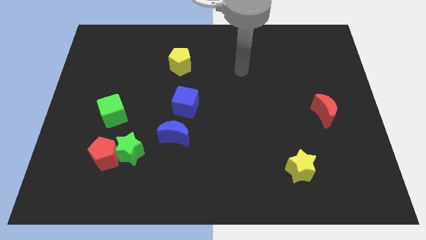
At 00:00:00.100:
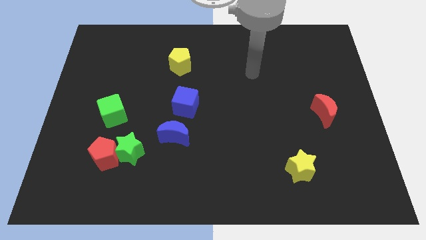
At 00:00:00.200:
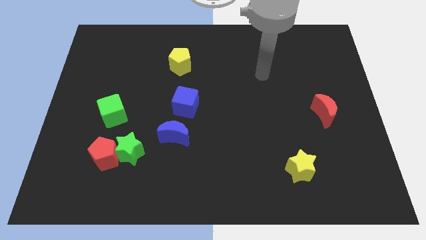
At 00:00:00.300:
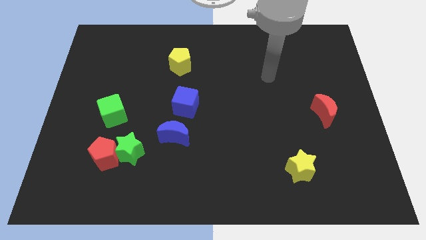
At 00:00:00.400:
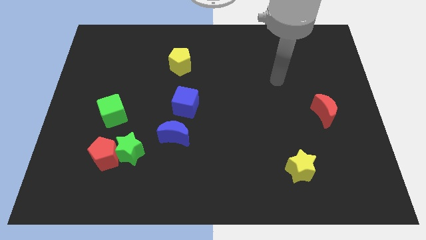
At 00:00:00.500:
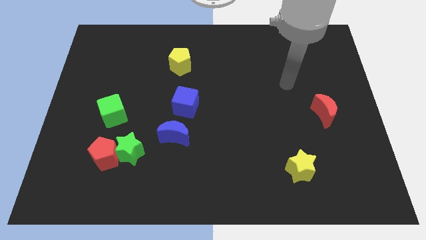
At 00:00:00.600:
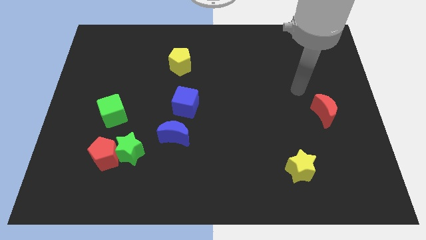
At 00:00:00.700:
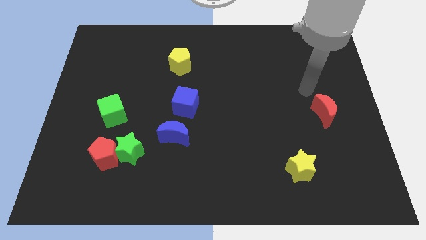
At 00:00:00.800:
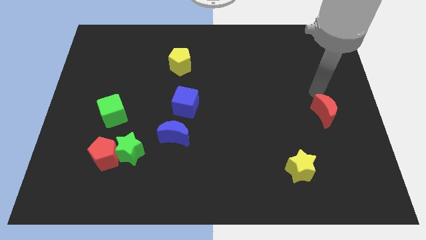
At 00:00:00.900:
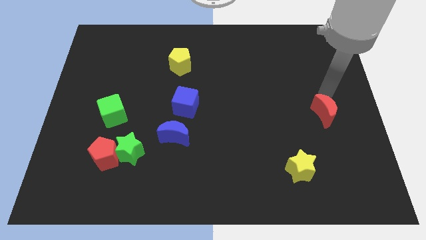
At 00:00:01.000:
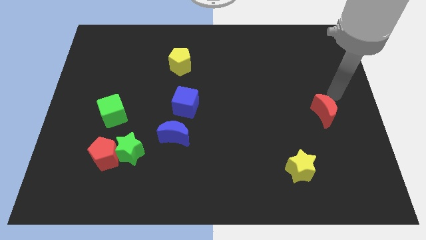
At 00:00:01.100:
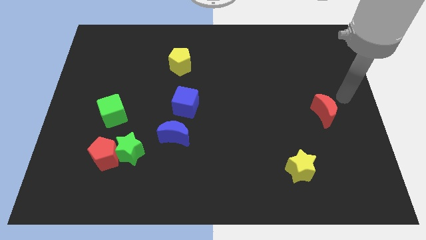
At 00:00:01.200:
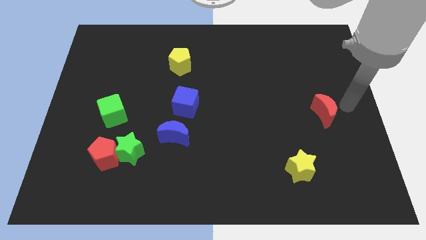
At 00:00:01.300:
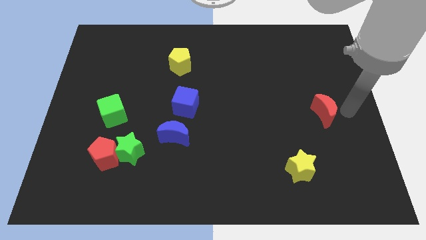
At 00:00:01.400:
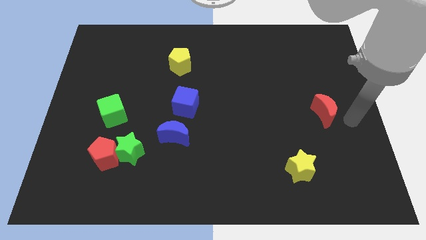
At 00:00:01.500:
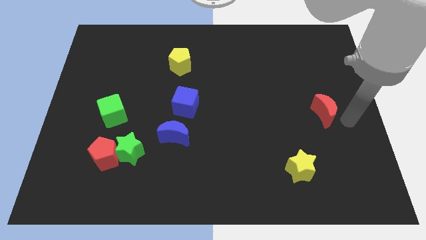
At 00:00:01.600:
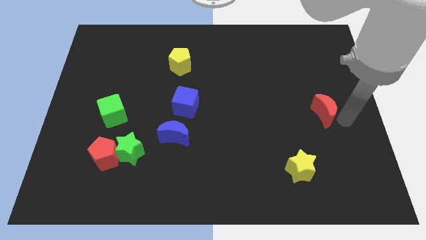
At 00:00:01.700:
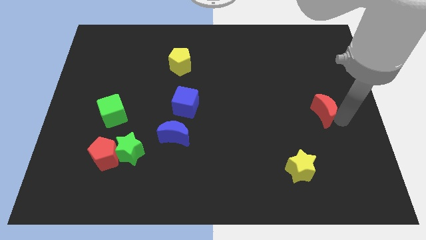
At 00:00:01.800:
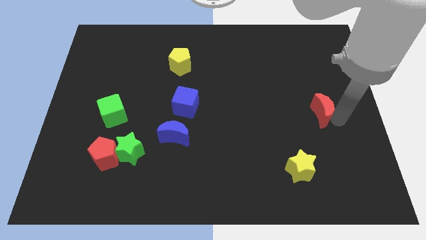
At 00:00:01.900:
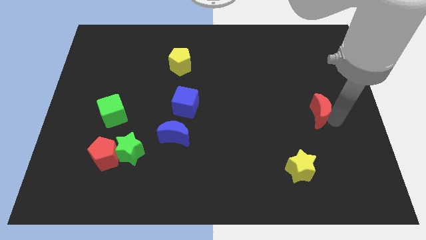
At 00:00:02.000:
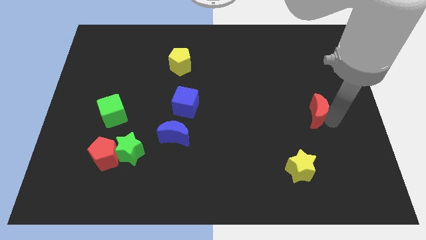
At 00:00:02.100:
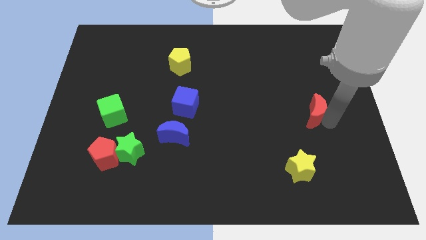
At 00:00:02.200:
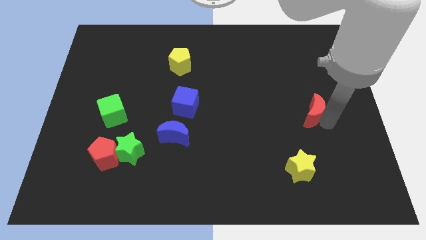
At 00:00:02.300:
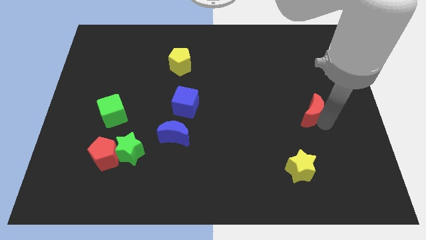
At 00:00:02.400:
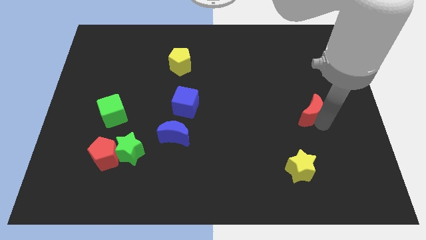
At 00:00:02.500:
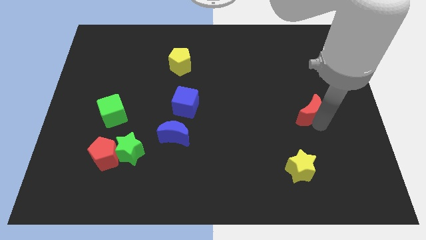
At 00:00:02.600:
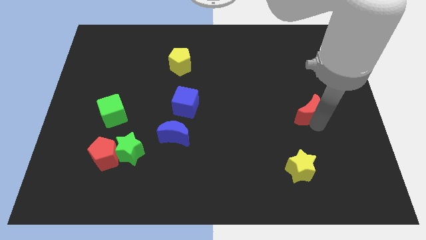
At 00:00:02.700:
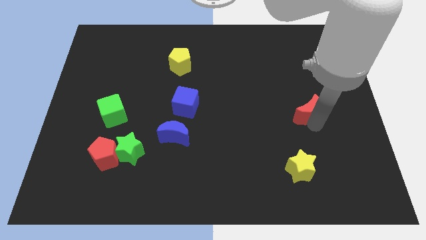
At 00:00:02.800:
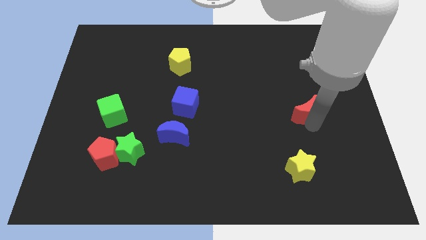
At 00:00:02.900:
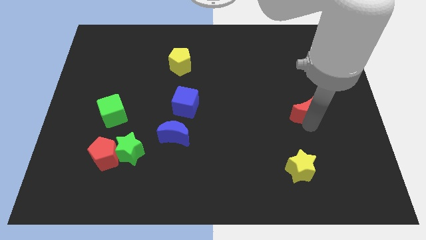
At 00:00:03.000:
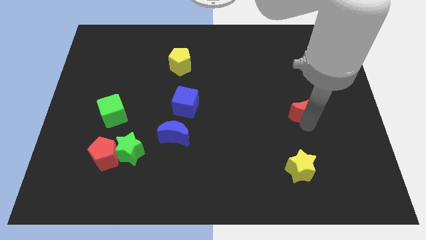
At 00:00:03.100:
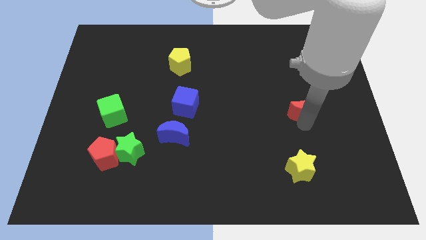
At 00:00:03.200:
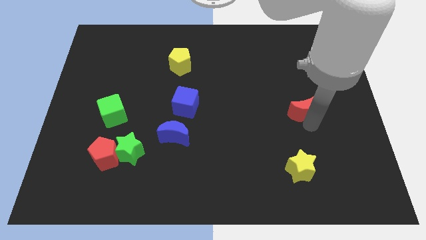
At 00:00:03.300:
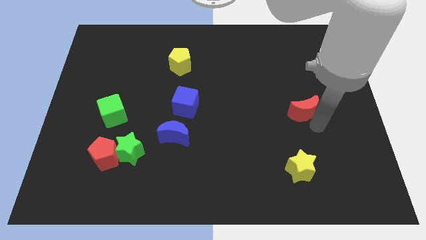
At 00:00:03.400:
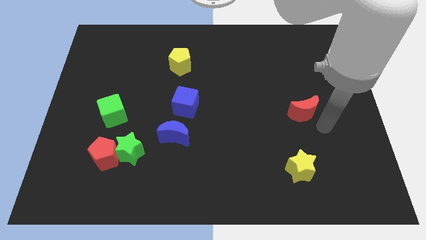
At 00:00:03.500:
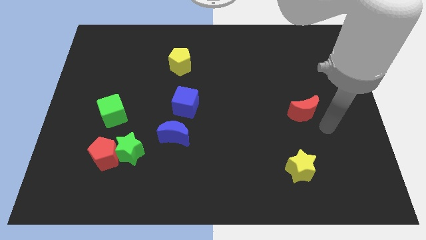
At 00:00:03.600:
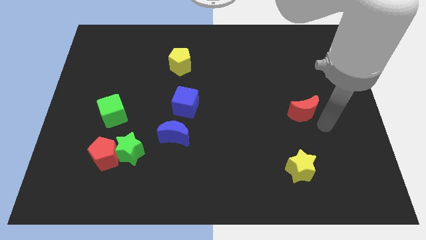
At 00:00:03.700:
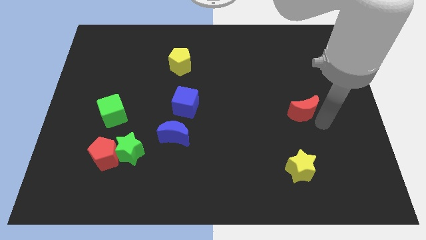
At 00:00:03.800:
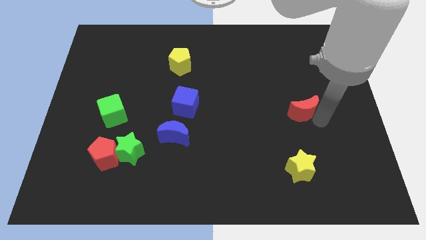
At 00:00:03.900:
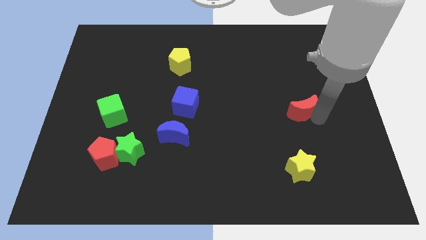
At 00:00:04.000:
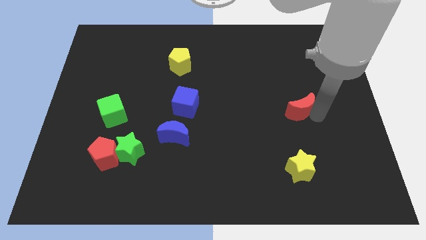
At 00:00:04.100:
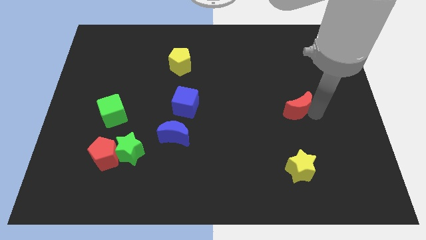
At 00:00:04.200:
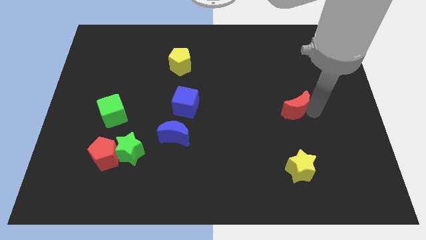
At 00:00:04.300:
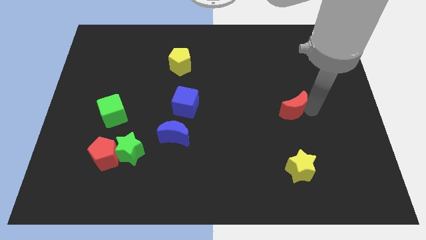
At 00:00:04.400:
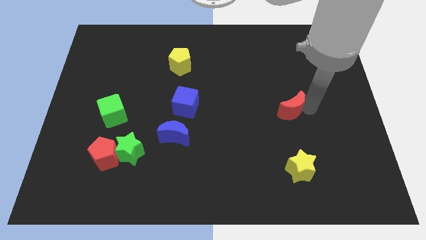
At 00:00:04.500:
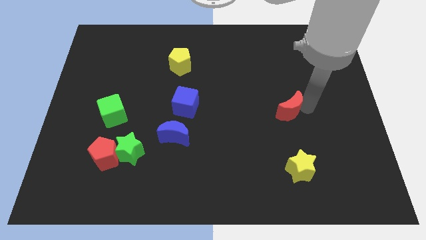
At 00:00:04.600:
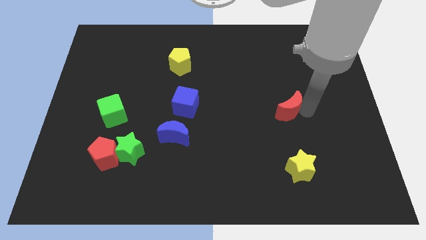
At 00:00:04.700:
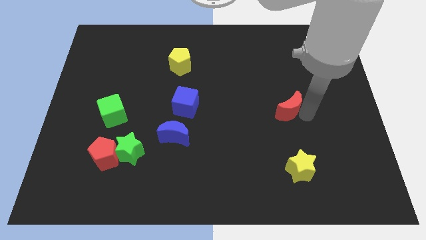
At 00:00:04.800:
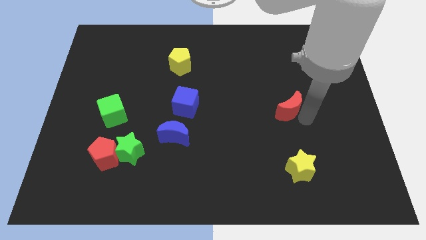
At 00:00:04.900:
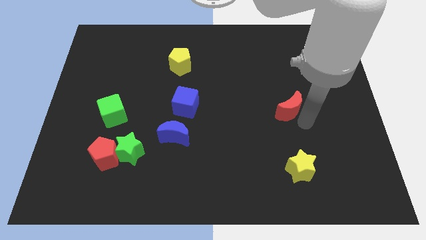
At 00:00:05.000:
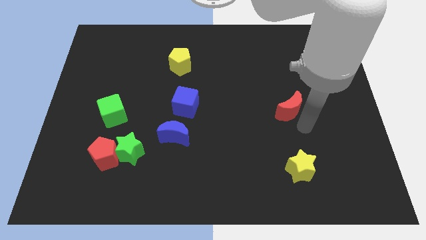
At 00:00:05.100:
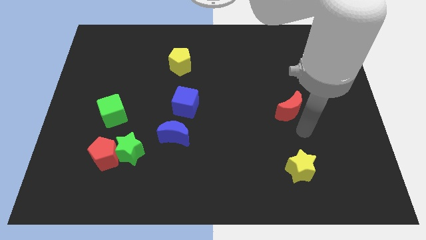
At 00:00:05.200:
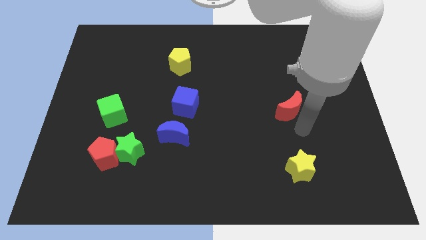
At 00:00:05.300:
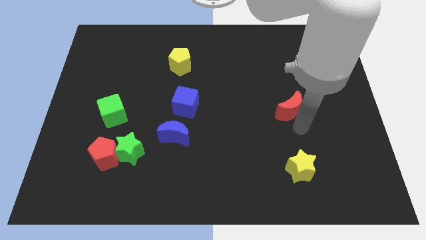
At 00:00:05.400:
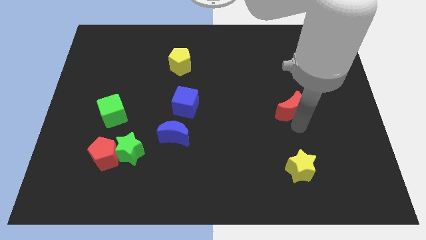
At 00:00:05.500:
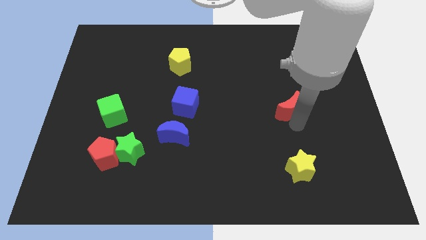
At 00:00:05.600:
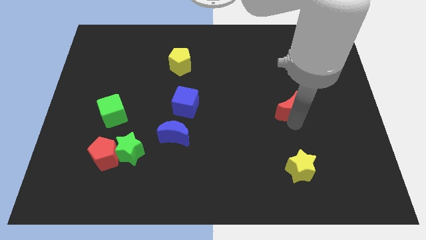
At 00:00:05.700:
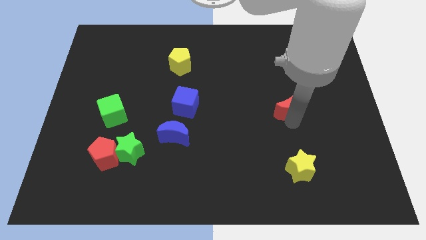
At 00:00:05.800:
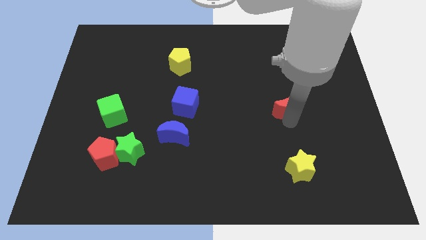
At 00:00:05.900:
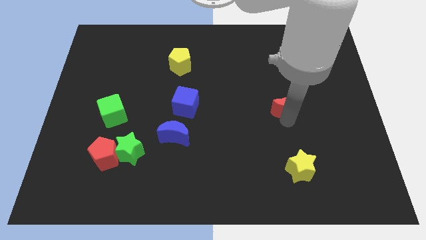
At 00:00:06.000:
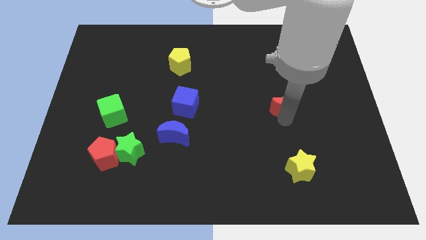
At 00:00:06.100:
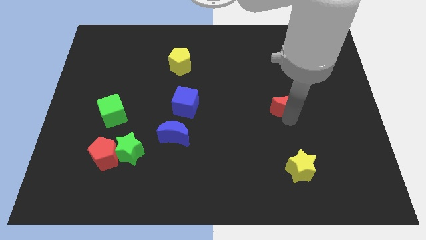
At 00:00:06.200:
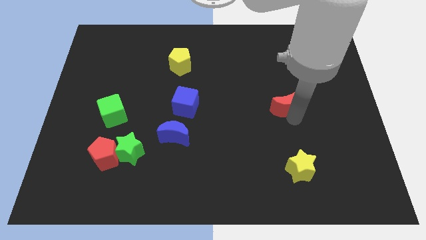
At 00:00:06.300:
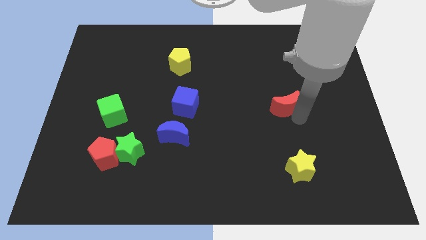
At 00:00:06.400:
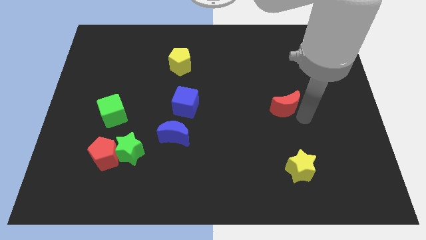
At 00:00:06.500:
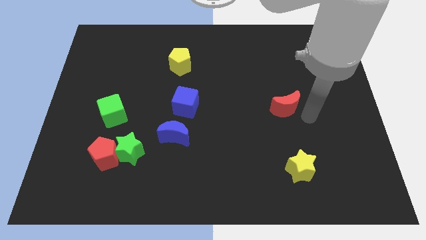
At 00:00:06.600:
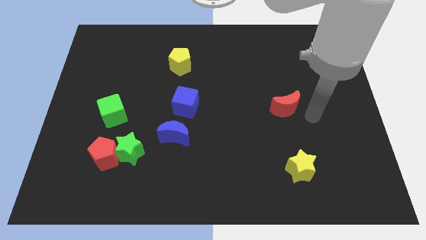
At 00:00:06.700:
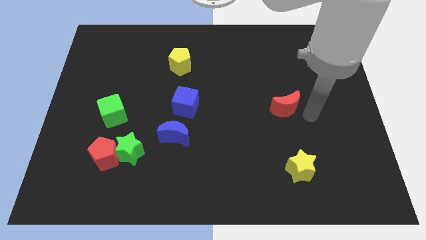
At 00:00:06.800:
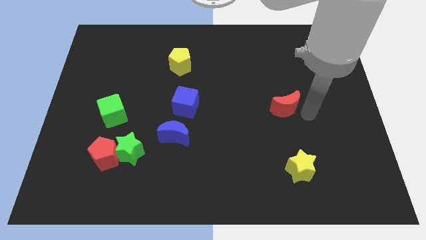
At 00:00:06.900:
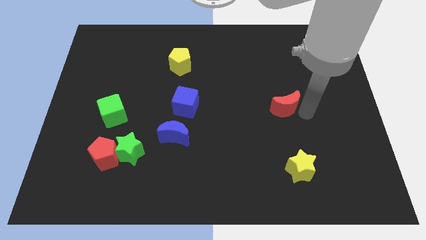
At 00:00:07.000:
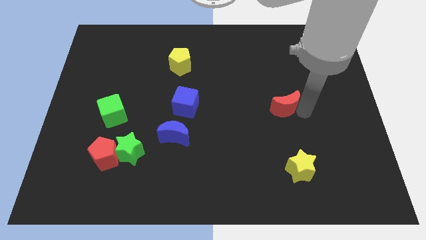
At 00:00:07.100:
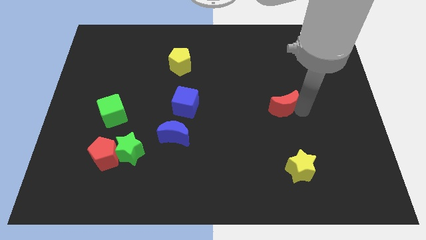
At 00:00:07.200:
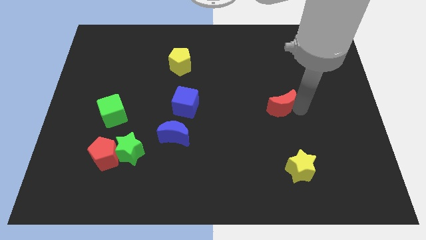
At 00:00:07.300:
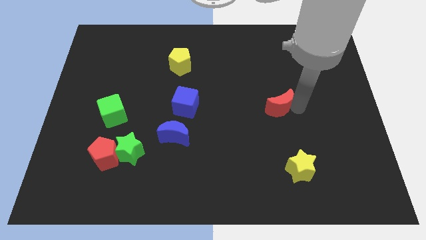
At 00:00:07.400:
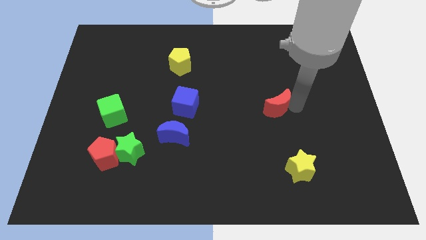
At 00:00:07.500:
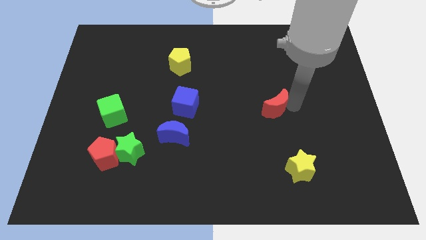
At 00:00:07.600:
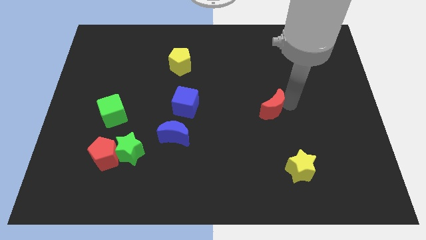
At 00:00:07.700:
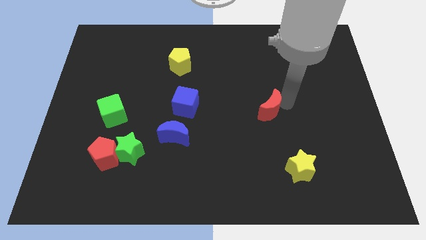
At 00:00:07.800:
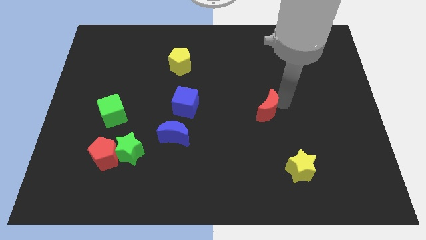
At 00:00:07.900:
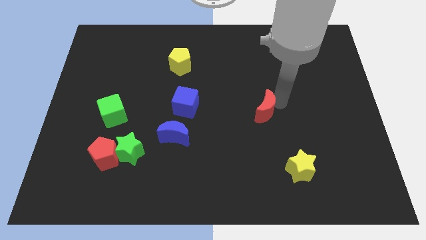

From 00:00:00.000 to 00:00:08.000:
put the red moon to the middle of the board
